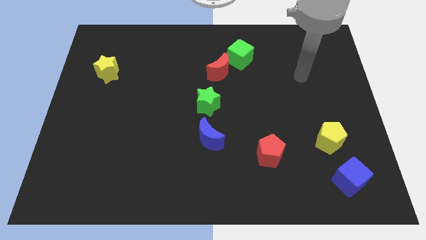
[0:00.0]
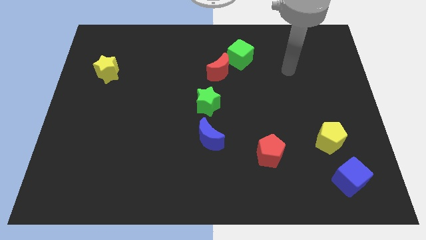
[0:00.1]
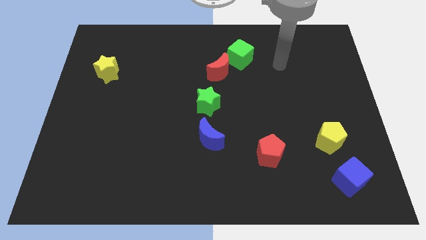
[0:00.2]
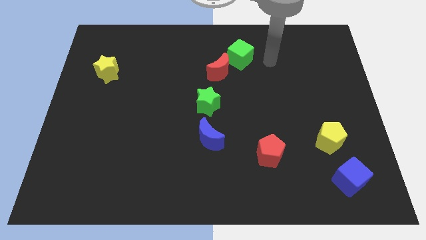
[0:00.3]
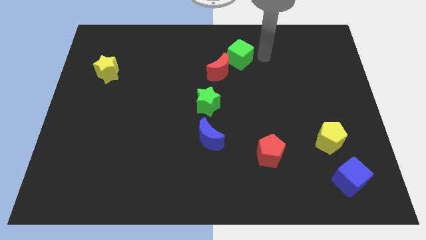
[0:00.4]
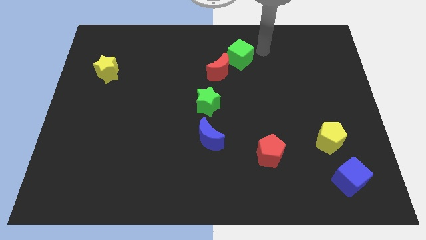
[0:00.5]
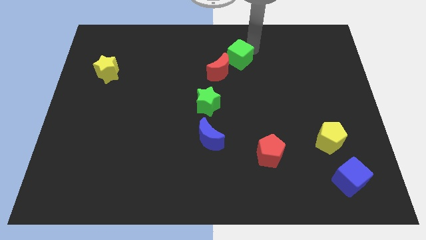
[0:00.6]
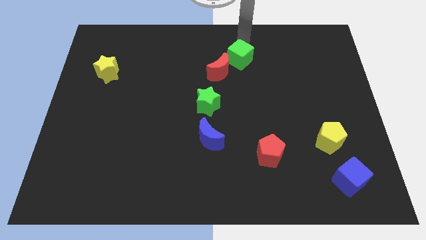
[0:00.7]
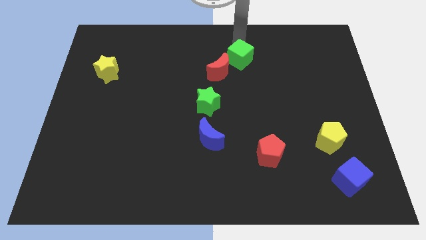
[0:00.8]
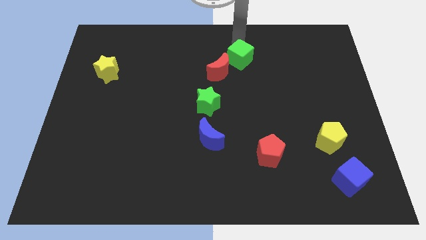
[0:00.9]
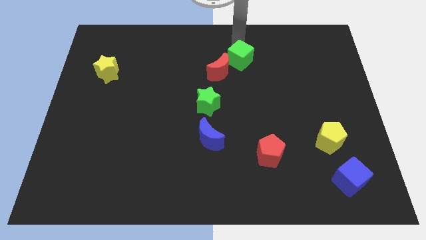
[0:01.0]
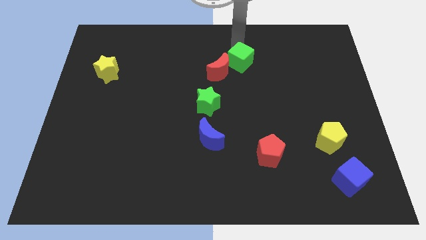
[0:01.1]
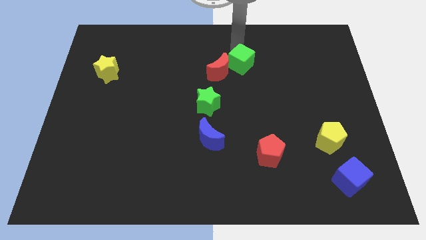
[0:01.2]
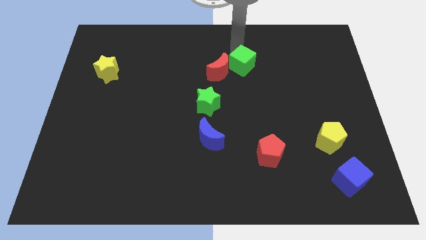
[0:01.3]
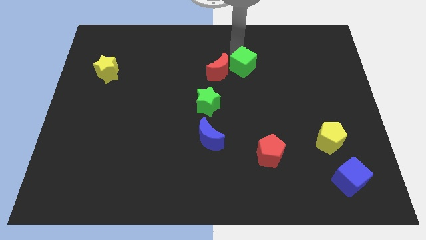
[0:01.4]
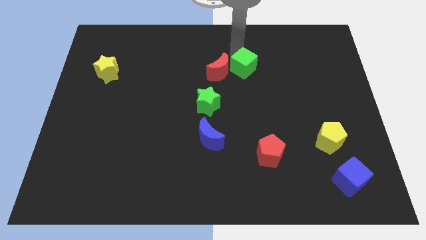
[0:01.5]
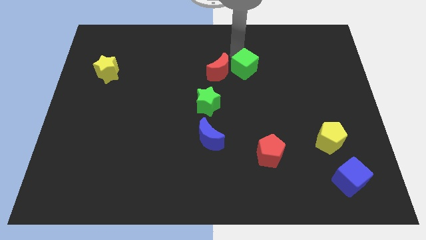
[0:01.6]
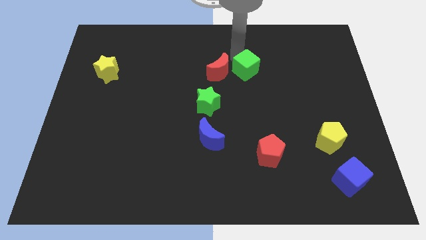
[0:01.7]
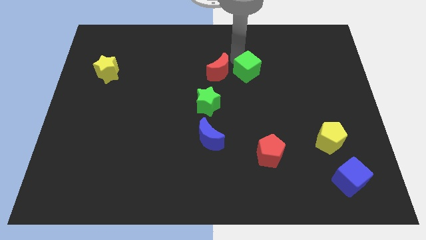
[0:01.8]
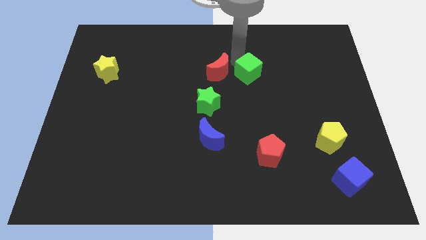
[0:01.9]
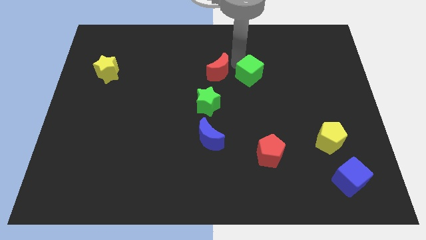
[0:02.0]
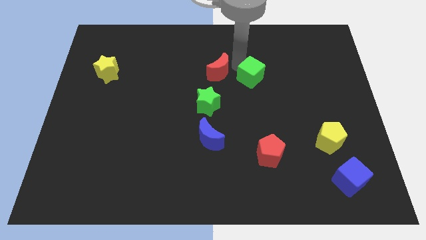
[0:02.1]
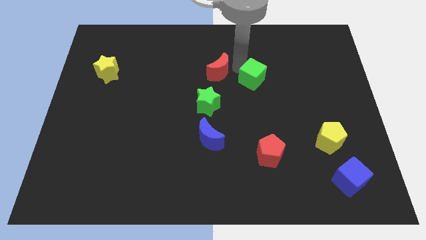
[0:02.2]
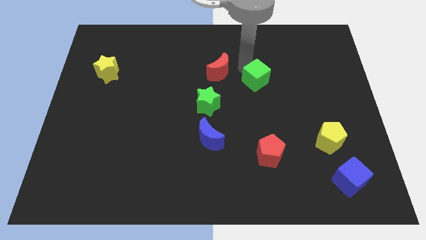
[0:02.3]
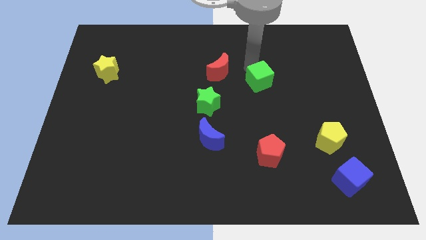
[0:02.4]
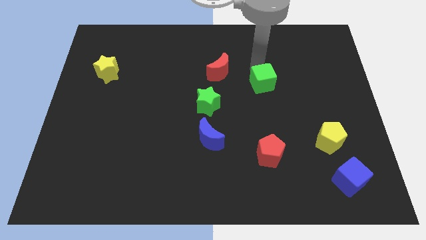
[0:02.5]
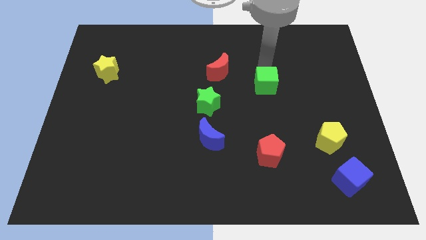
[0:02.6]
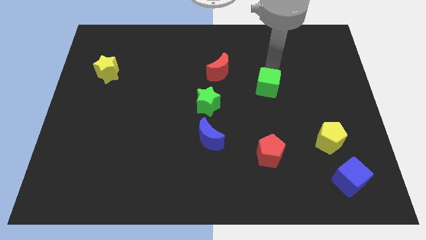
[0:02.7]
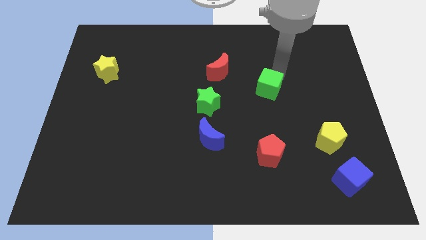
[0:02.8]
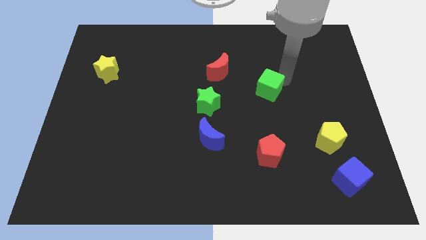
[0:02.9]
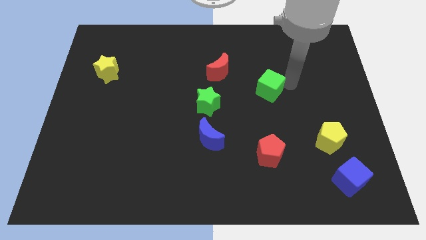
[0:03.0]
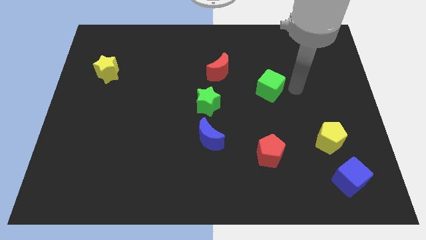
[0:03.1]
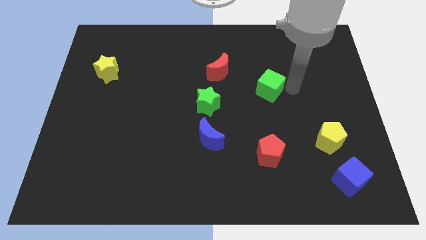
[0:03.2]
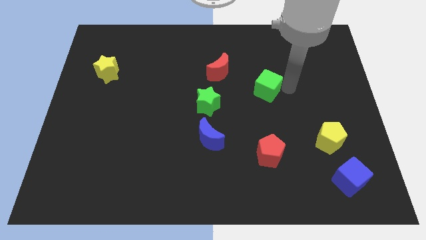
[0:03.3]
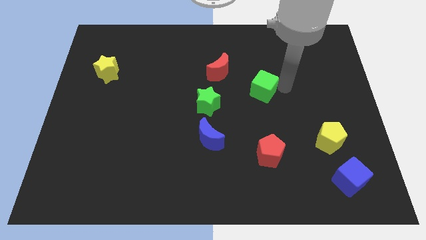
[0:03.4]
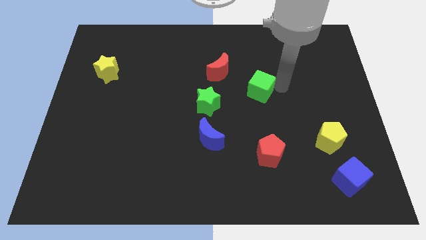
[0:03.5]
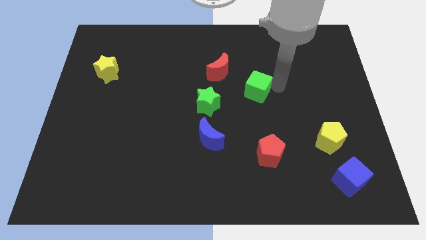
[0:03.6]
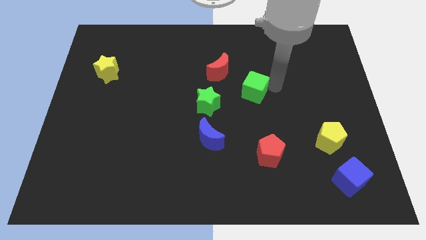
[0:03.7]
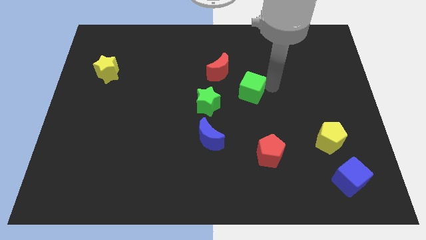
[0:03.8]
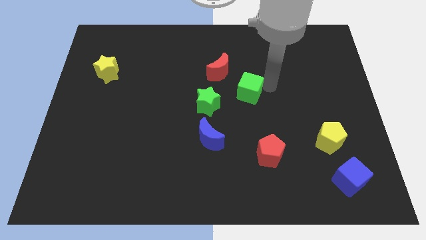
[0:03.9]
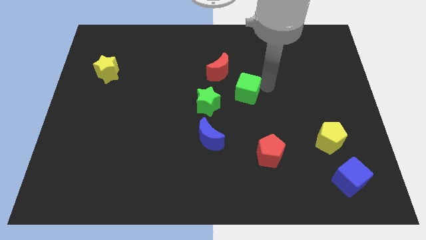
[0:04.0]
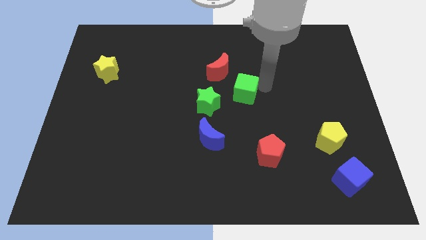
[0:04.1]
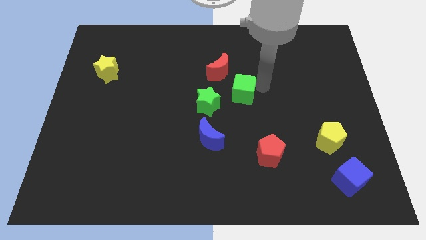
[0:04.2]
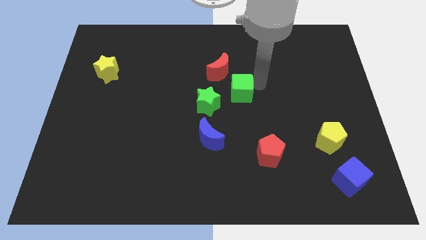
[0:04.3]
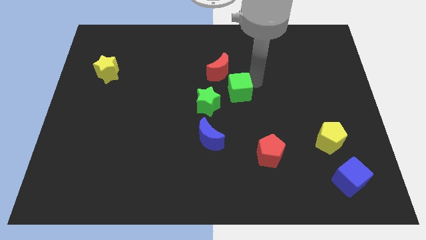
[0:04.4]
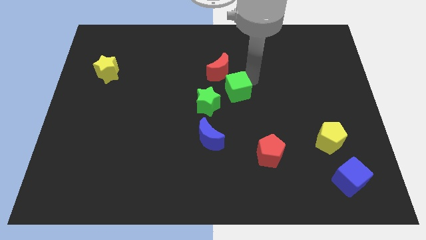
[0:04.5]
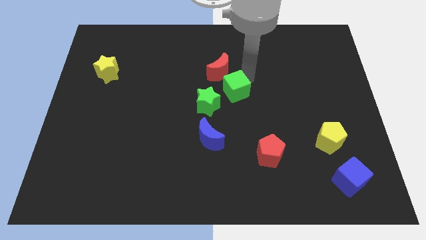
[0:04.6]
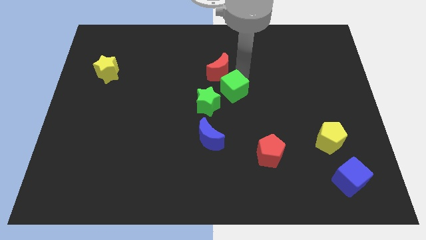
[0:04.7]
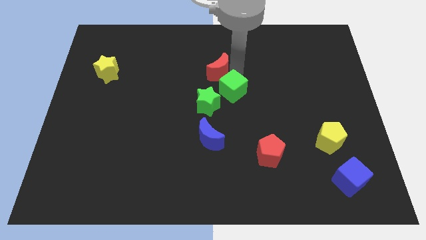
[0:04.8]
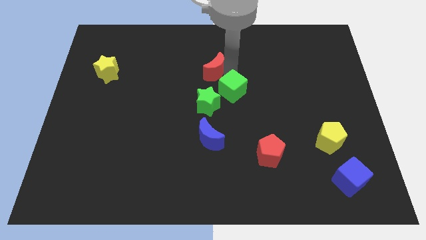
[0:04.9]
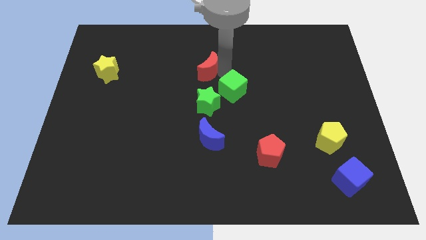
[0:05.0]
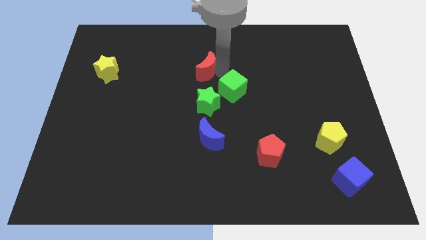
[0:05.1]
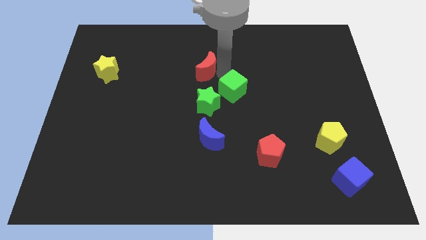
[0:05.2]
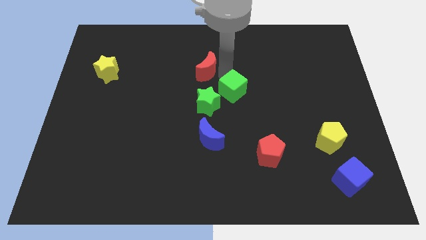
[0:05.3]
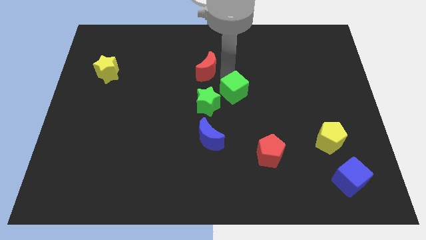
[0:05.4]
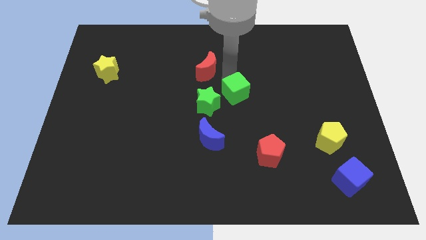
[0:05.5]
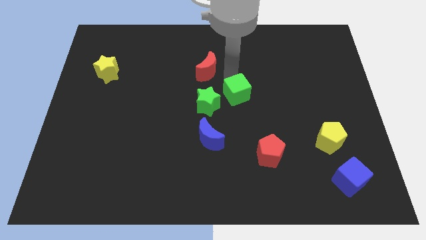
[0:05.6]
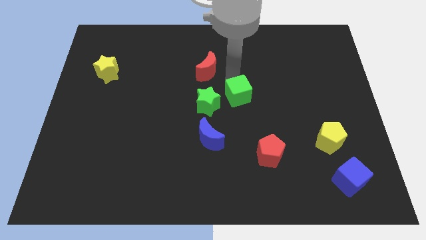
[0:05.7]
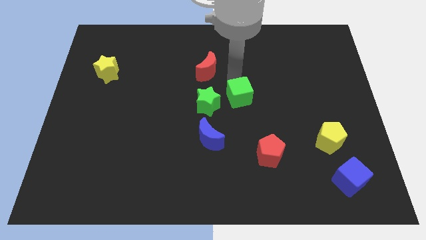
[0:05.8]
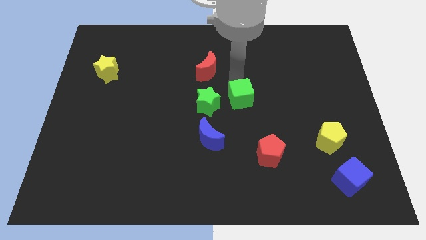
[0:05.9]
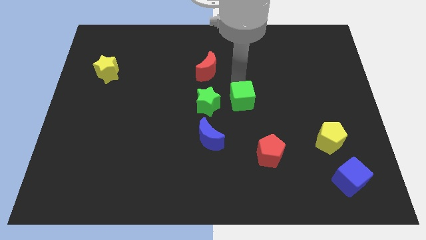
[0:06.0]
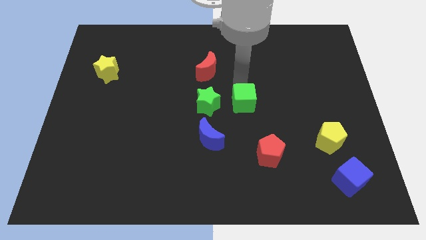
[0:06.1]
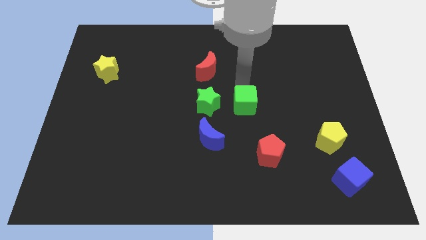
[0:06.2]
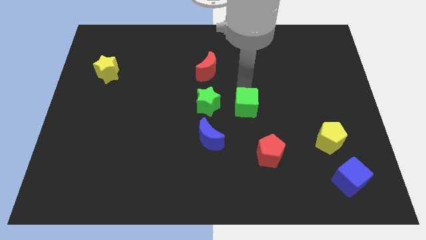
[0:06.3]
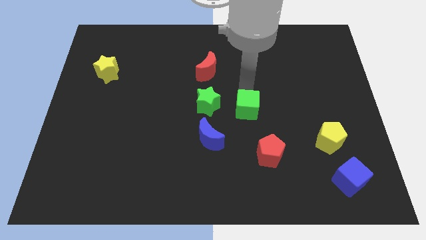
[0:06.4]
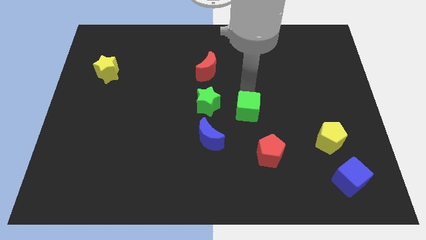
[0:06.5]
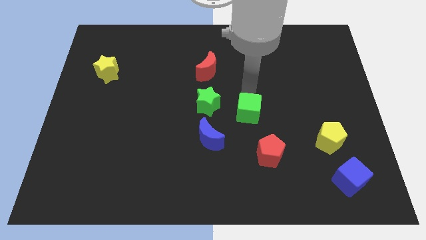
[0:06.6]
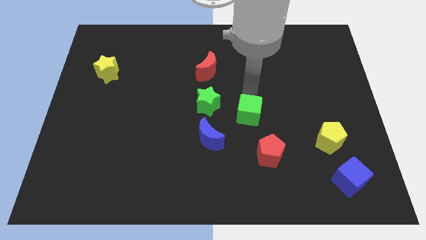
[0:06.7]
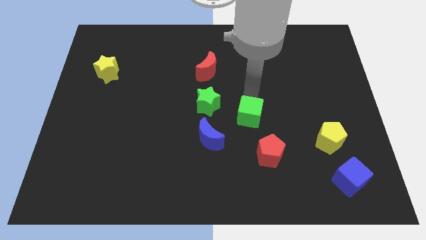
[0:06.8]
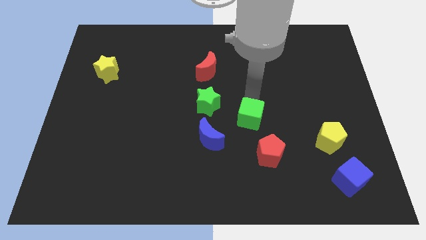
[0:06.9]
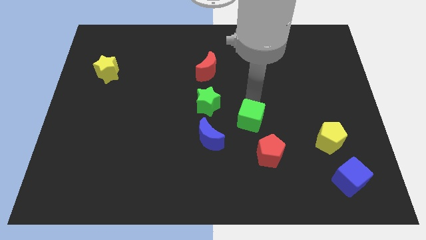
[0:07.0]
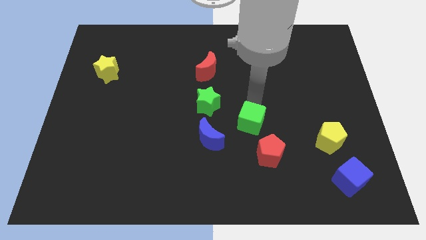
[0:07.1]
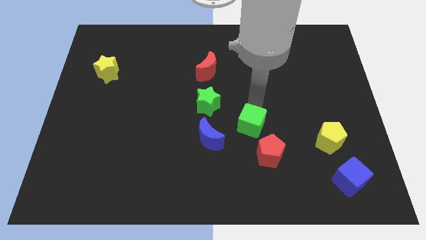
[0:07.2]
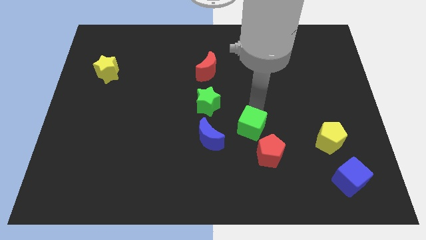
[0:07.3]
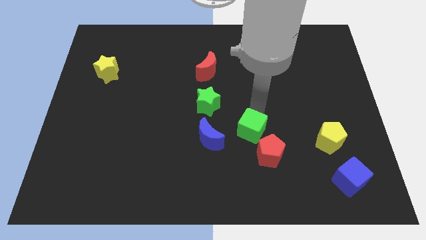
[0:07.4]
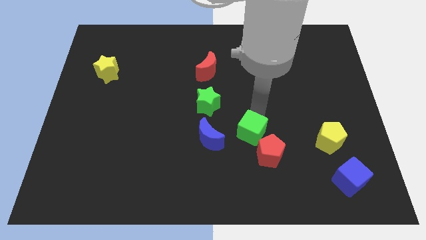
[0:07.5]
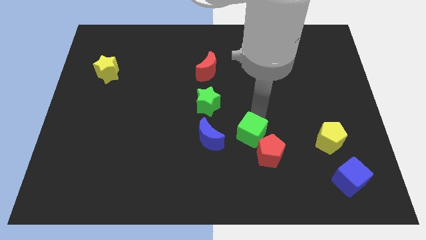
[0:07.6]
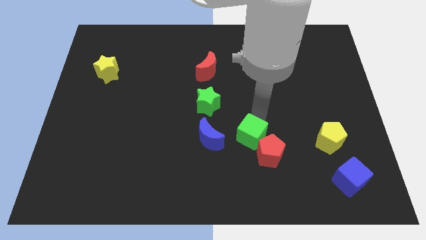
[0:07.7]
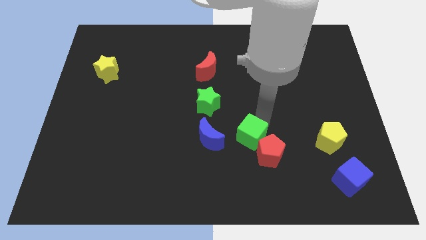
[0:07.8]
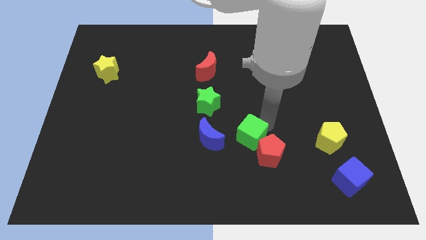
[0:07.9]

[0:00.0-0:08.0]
move the green cube to the left side of the red pentagon
